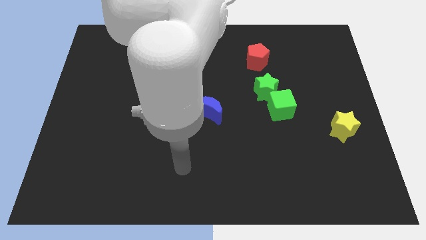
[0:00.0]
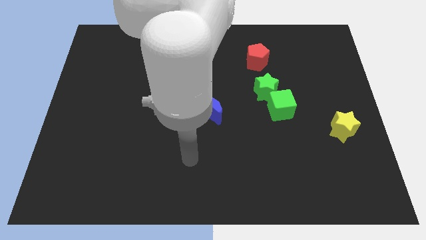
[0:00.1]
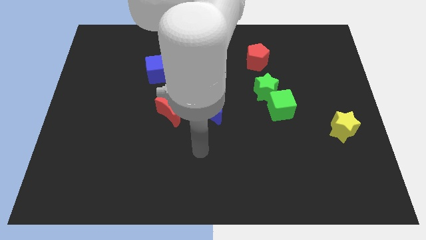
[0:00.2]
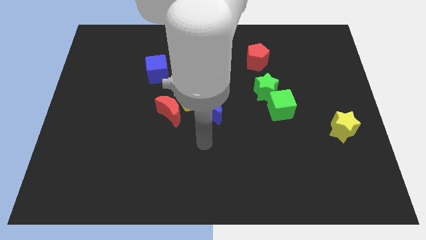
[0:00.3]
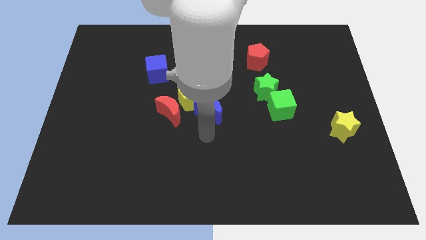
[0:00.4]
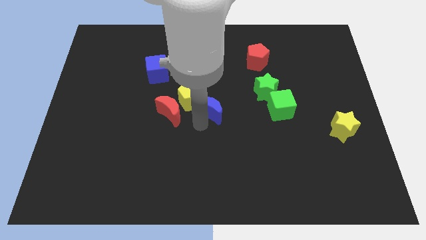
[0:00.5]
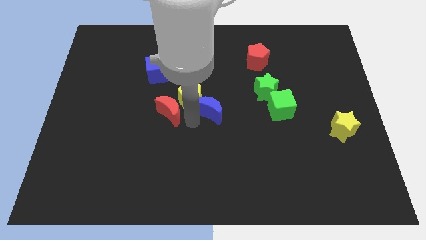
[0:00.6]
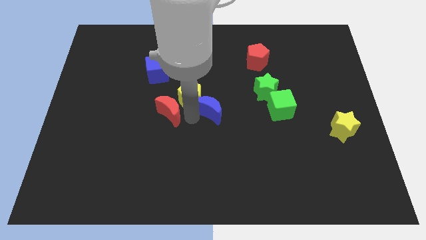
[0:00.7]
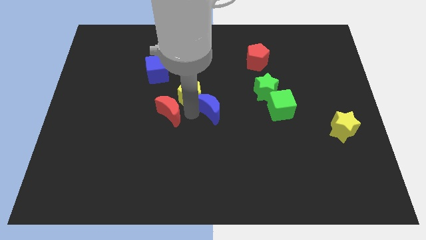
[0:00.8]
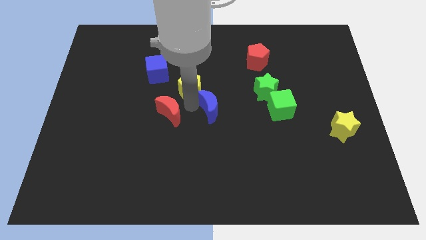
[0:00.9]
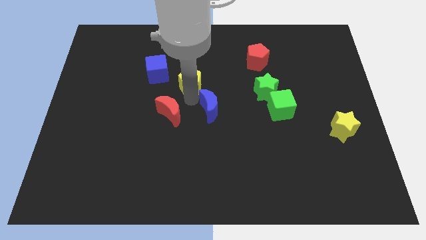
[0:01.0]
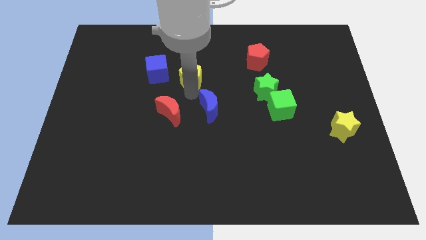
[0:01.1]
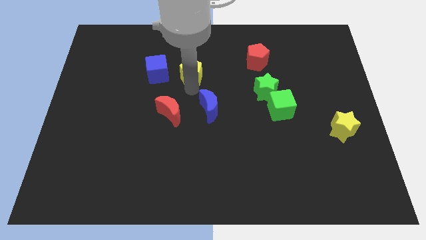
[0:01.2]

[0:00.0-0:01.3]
pull the yellow pentagon apart from the blue moon and red moon

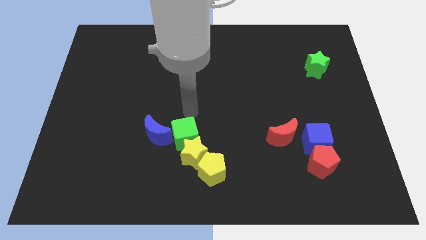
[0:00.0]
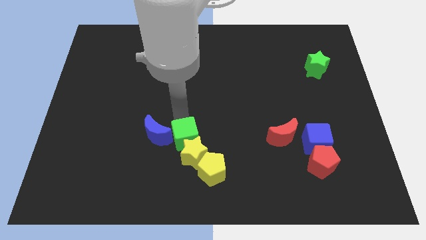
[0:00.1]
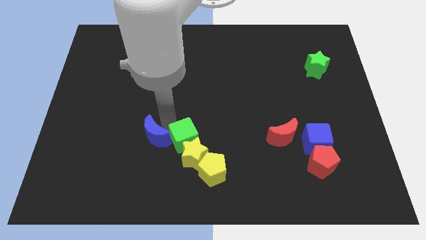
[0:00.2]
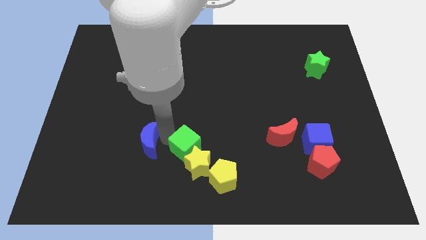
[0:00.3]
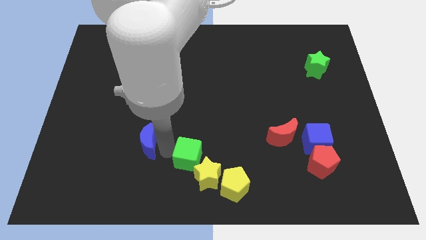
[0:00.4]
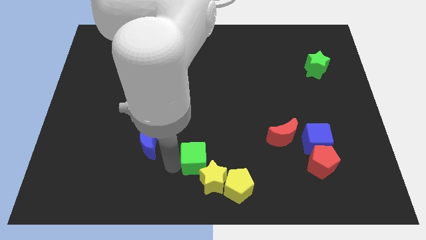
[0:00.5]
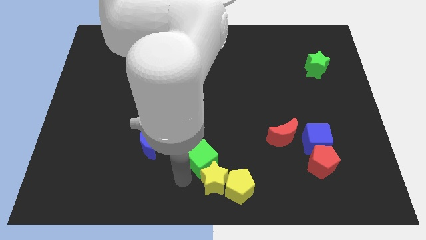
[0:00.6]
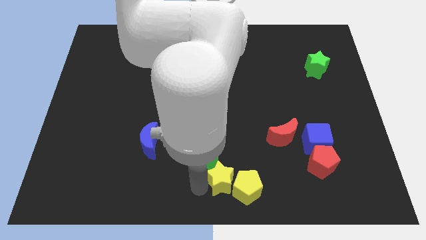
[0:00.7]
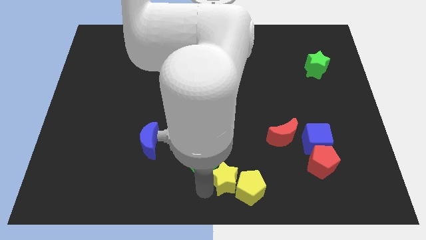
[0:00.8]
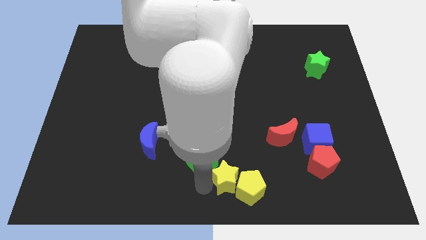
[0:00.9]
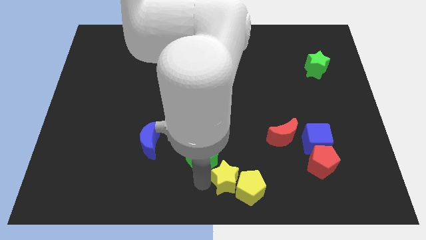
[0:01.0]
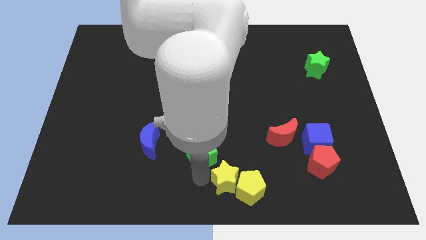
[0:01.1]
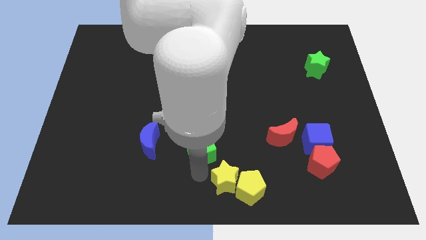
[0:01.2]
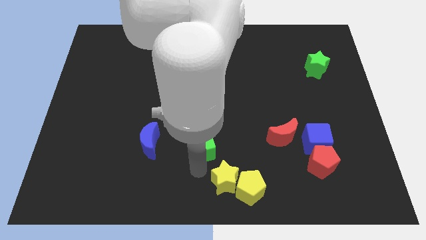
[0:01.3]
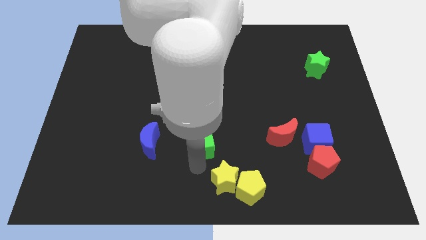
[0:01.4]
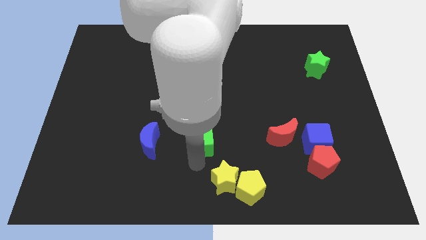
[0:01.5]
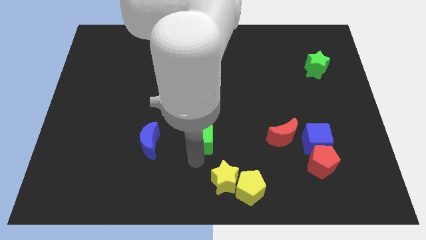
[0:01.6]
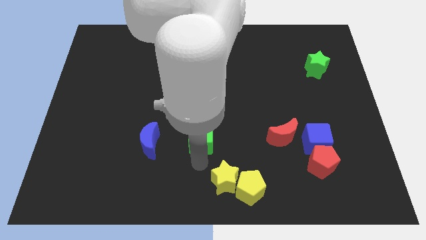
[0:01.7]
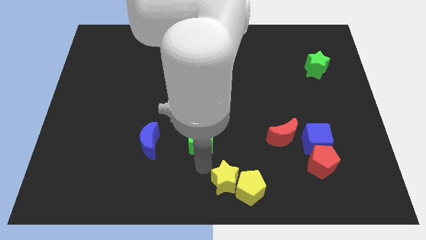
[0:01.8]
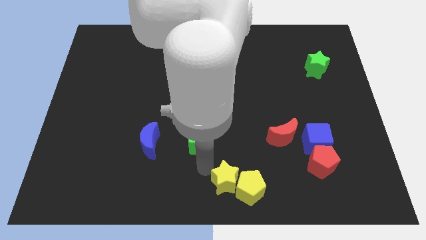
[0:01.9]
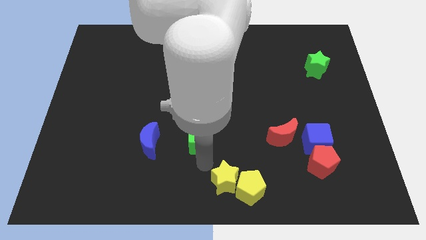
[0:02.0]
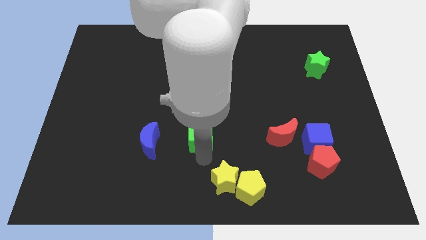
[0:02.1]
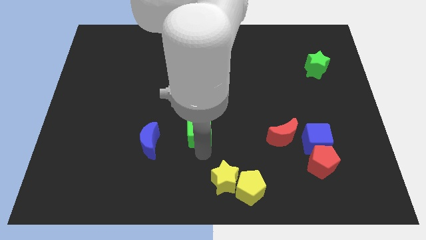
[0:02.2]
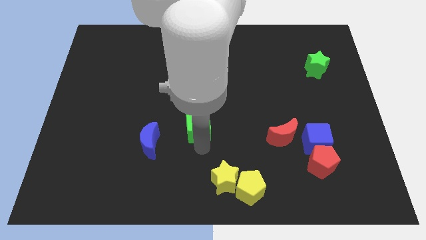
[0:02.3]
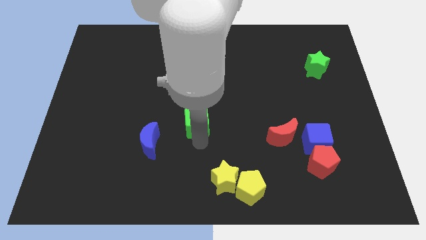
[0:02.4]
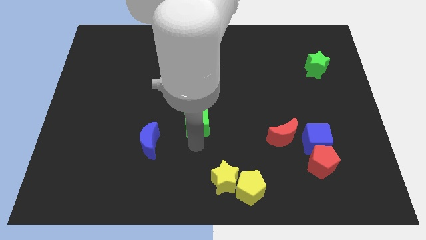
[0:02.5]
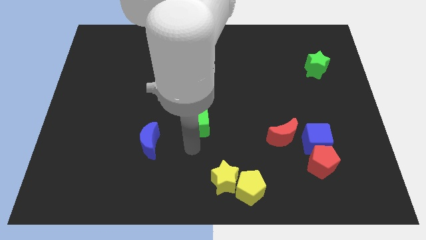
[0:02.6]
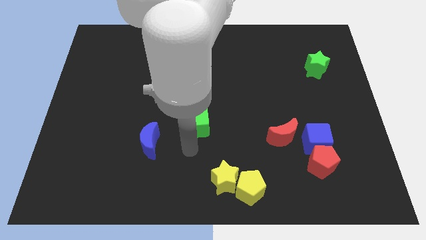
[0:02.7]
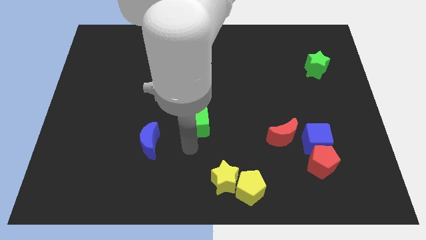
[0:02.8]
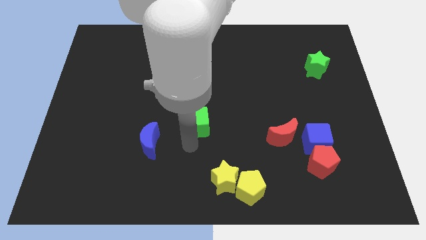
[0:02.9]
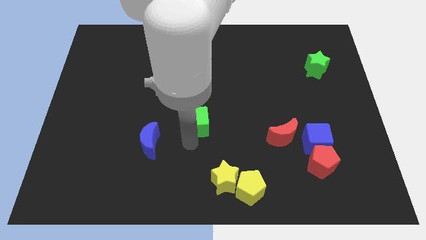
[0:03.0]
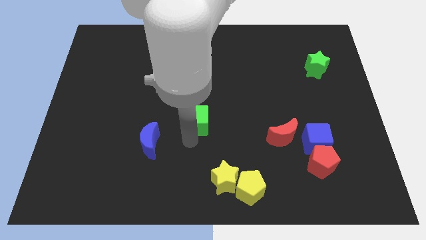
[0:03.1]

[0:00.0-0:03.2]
move the green cube away from the yellow star and blue moon

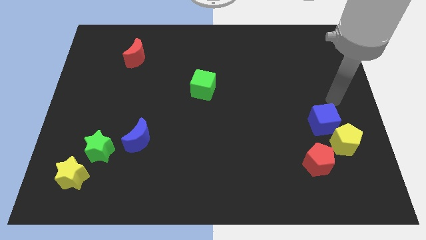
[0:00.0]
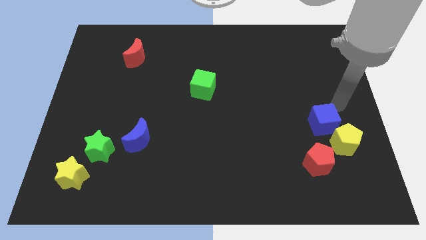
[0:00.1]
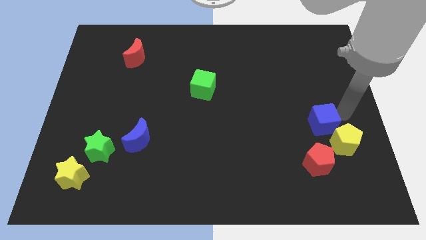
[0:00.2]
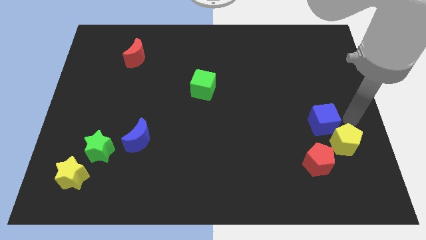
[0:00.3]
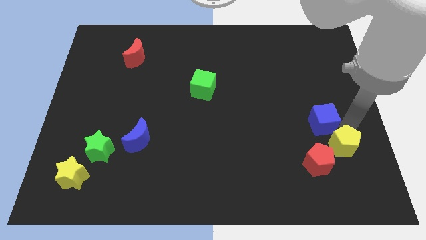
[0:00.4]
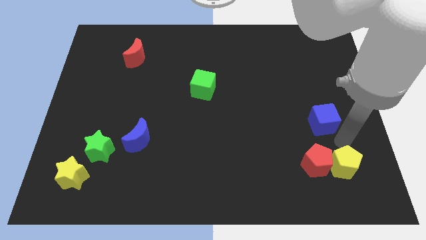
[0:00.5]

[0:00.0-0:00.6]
pull the blue cube apart from the yellow pentagon

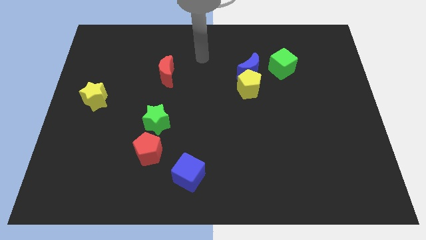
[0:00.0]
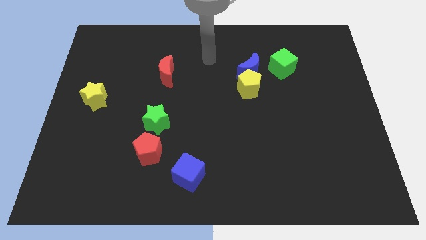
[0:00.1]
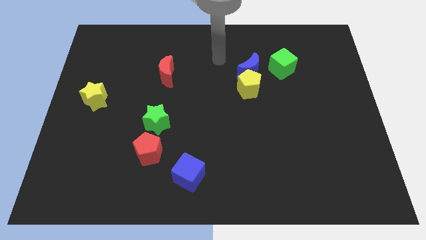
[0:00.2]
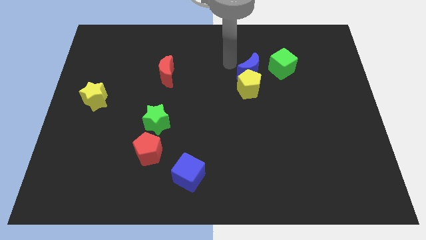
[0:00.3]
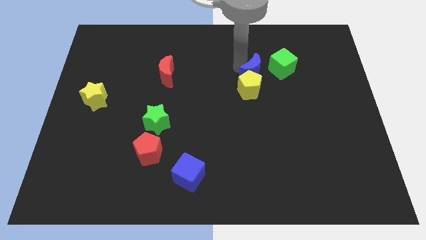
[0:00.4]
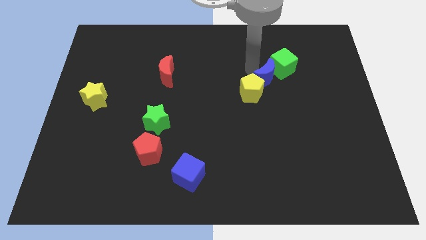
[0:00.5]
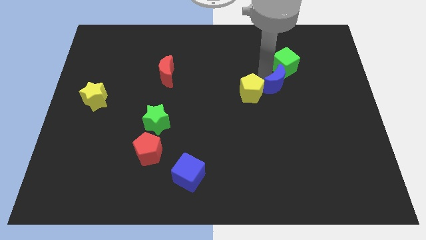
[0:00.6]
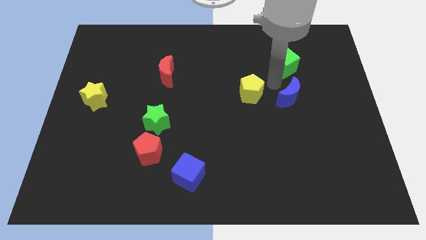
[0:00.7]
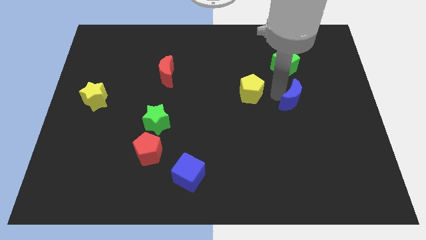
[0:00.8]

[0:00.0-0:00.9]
separate the yellow pentagon from the blue moon

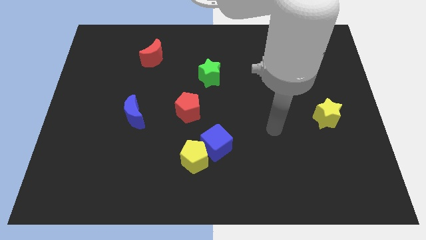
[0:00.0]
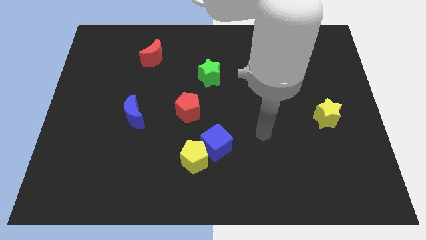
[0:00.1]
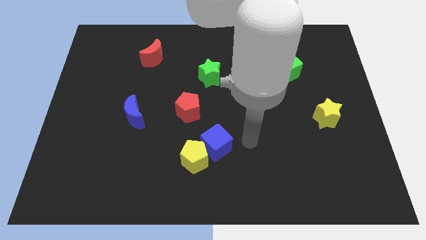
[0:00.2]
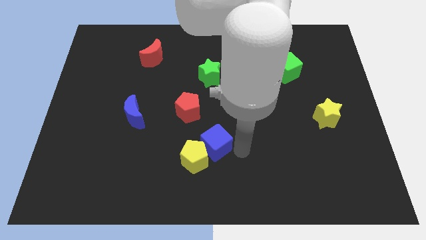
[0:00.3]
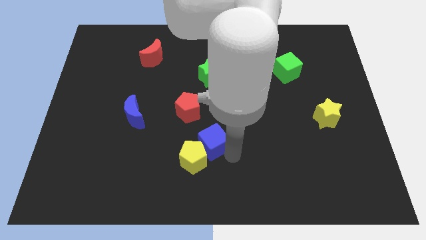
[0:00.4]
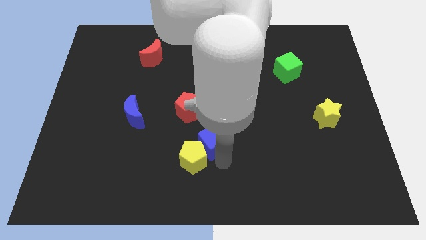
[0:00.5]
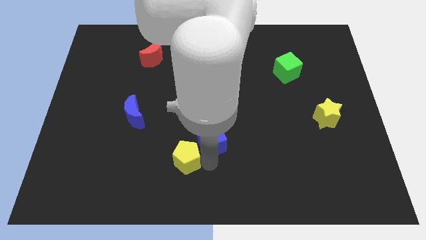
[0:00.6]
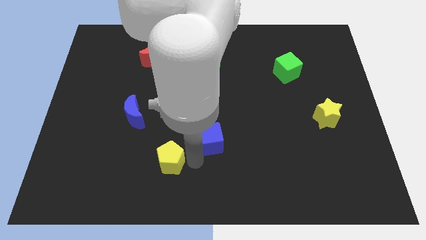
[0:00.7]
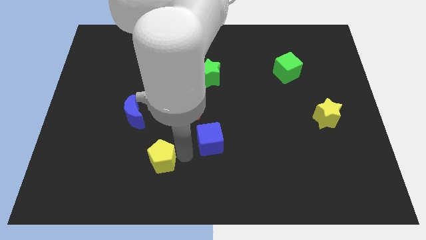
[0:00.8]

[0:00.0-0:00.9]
separate the blue cube from the yellow pentagon

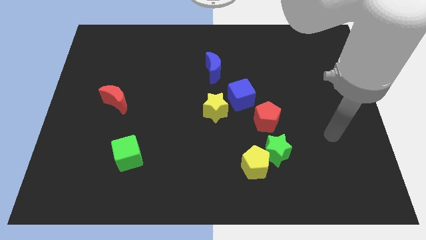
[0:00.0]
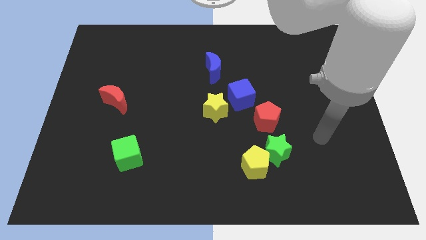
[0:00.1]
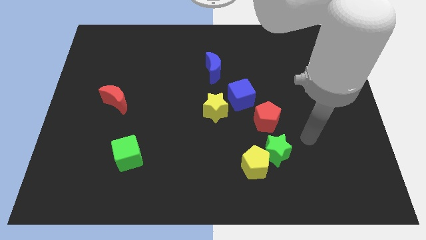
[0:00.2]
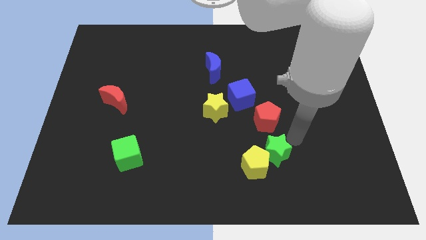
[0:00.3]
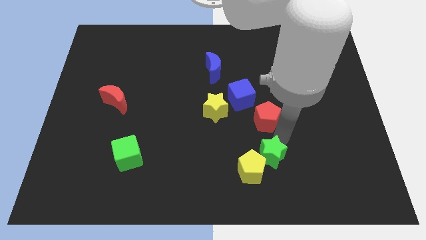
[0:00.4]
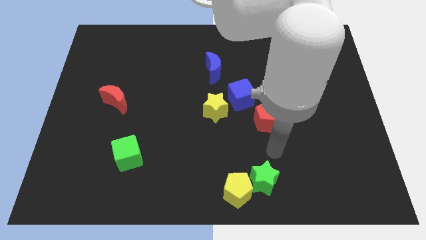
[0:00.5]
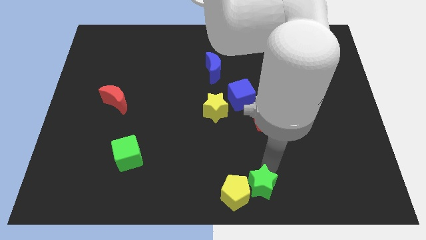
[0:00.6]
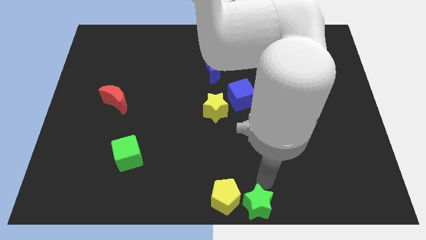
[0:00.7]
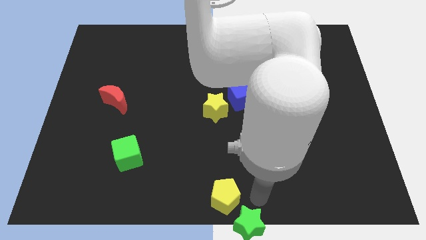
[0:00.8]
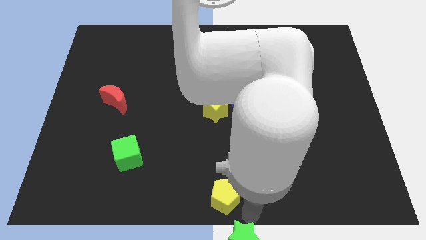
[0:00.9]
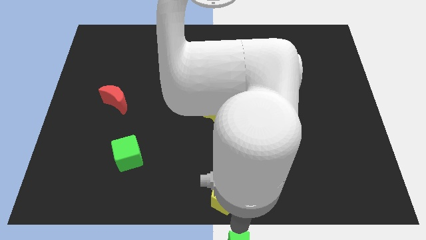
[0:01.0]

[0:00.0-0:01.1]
pull the yellow pentagon apart from the green star

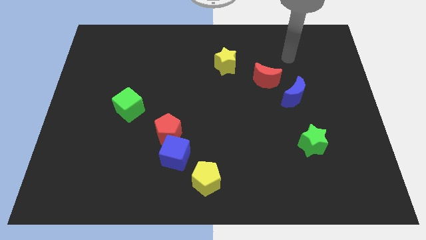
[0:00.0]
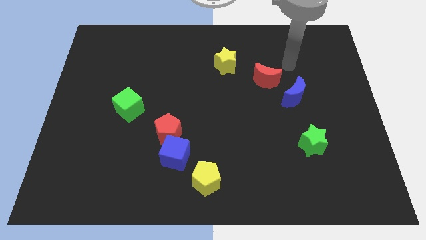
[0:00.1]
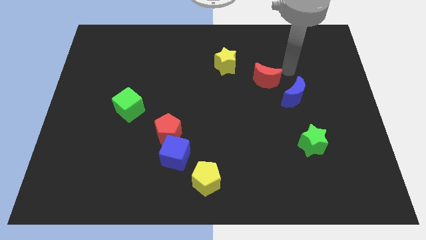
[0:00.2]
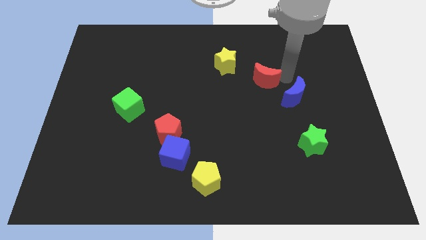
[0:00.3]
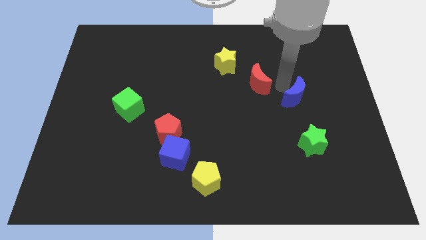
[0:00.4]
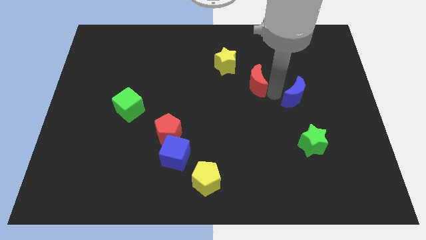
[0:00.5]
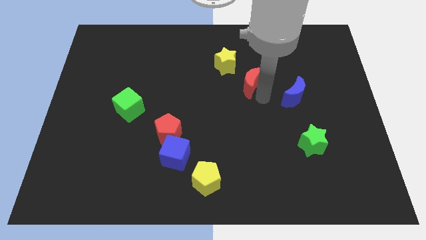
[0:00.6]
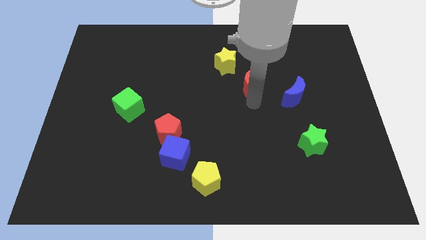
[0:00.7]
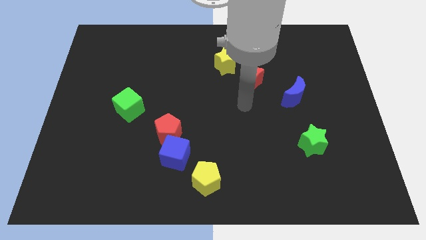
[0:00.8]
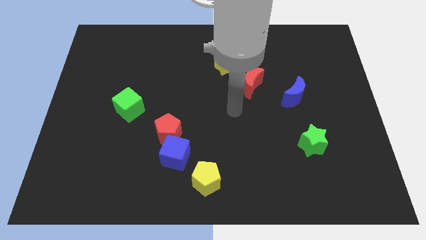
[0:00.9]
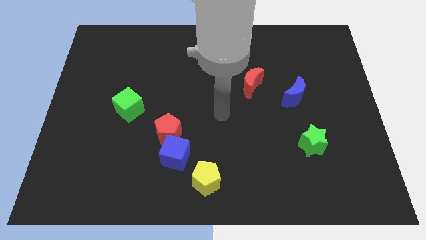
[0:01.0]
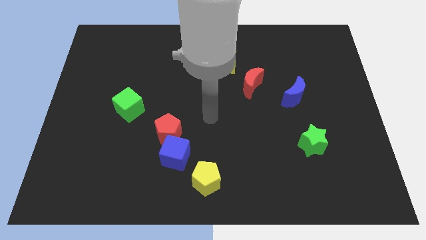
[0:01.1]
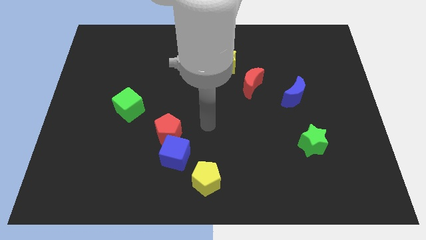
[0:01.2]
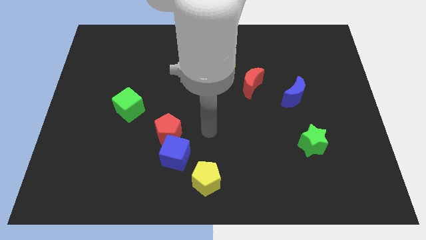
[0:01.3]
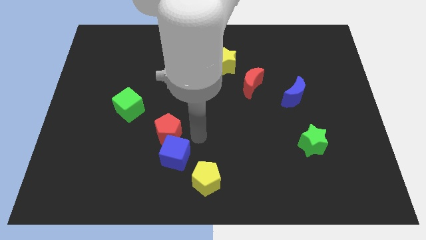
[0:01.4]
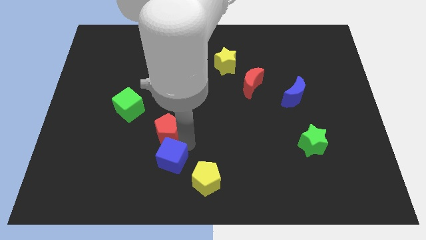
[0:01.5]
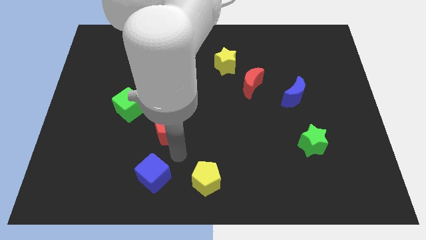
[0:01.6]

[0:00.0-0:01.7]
separate the red pentagon from the blue cube
